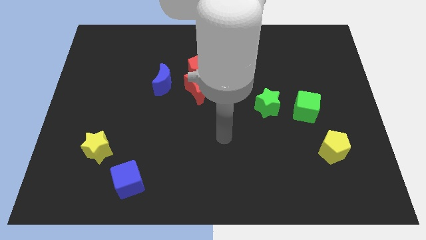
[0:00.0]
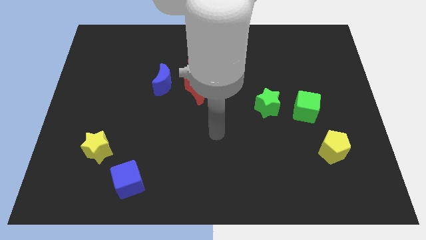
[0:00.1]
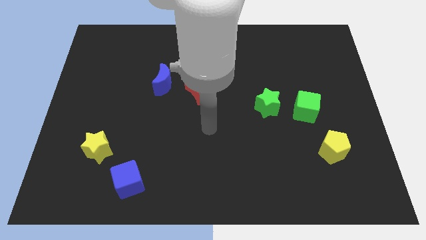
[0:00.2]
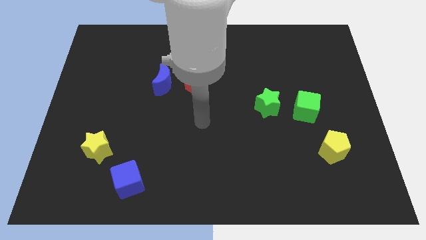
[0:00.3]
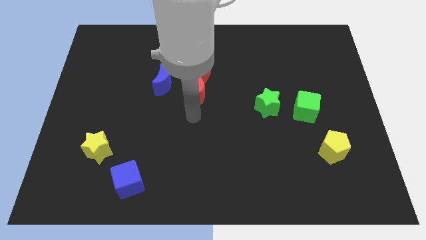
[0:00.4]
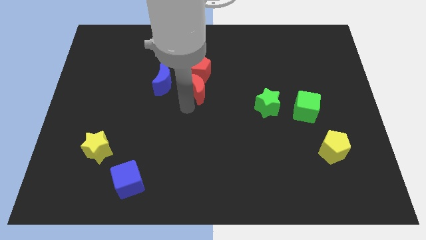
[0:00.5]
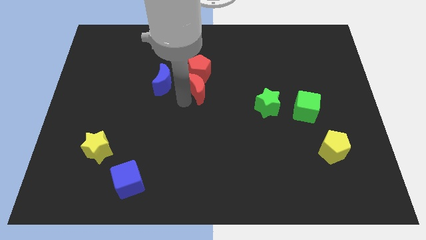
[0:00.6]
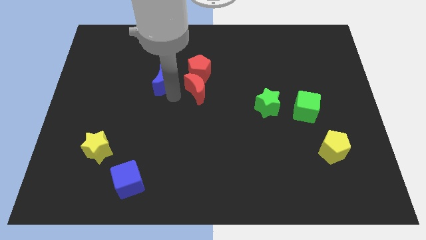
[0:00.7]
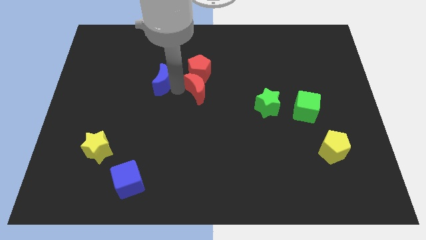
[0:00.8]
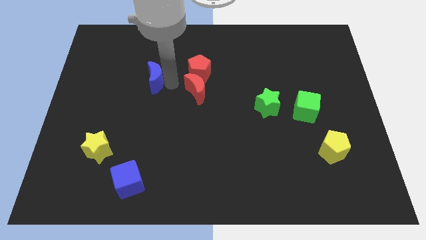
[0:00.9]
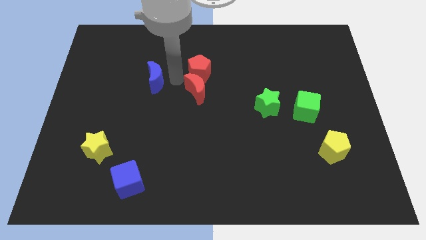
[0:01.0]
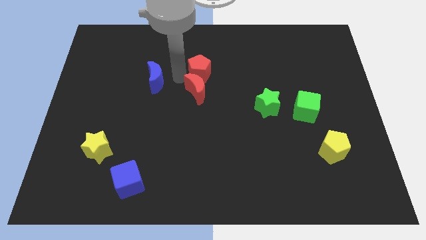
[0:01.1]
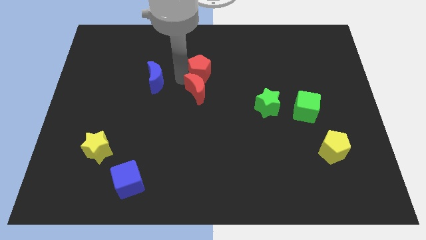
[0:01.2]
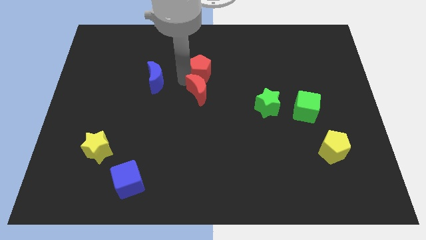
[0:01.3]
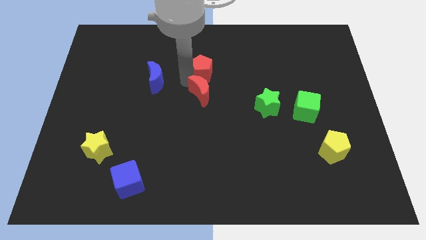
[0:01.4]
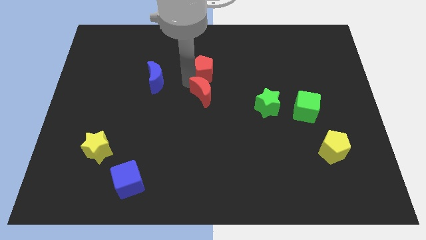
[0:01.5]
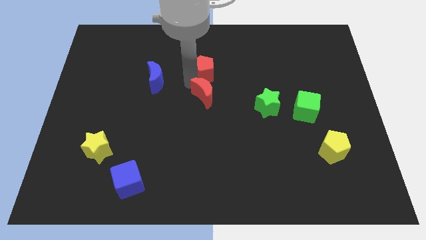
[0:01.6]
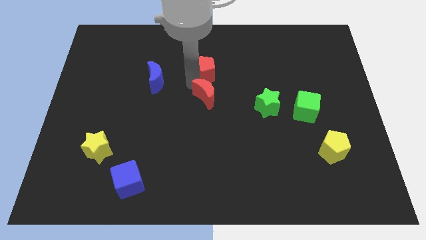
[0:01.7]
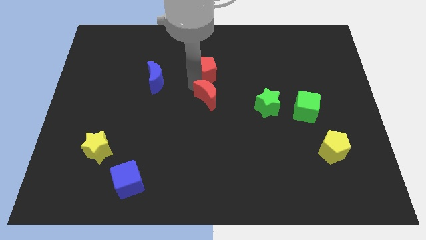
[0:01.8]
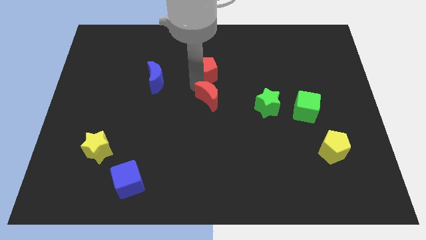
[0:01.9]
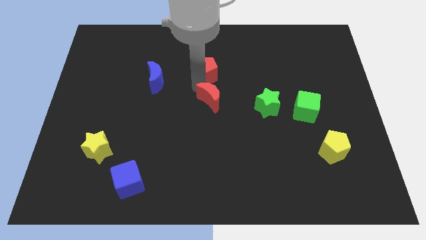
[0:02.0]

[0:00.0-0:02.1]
move the red moon away from the red pentagon and blue moon

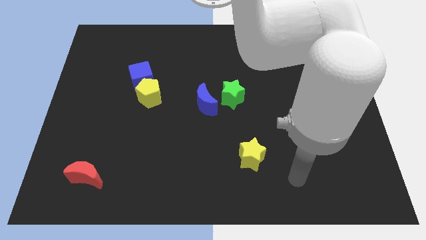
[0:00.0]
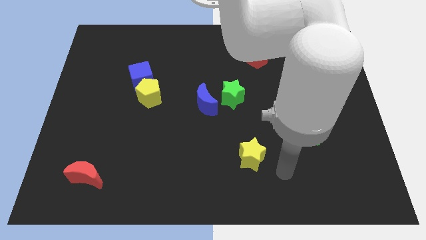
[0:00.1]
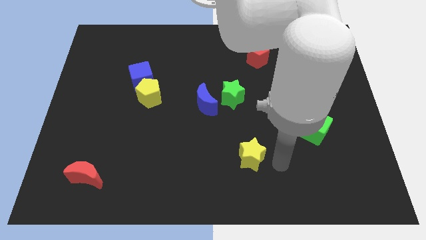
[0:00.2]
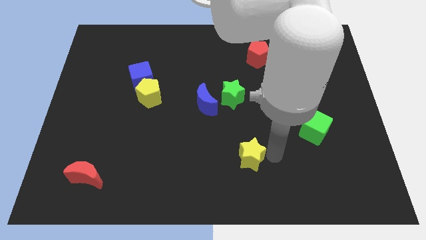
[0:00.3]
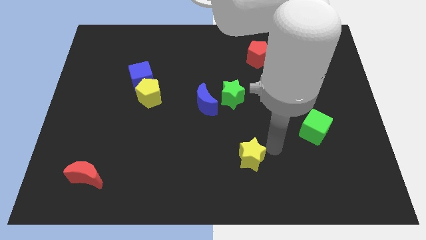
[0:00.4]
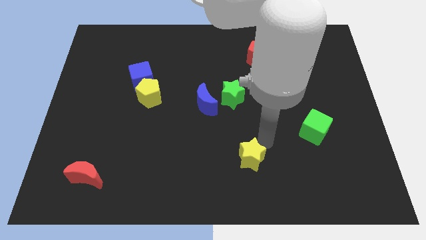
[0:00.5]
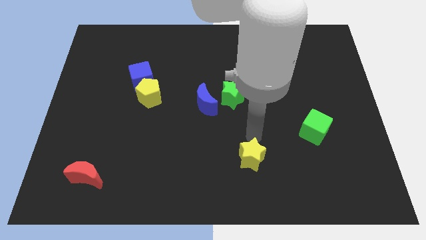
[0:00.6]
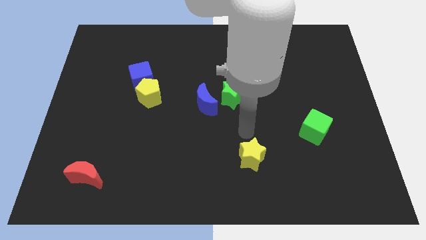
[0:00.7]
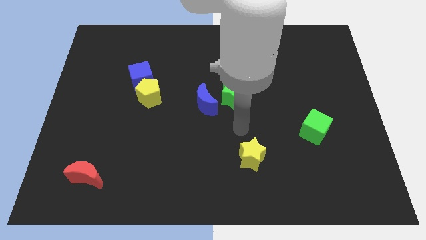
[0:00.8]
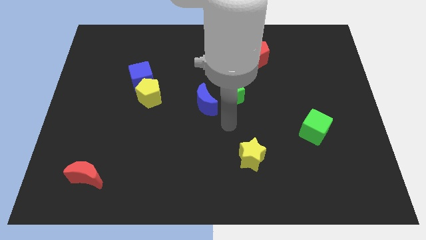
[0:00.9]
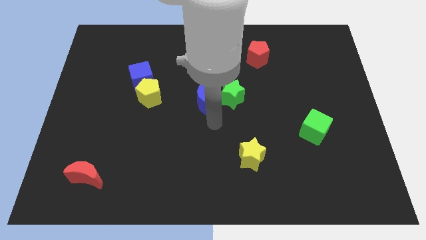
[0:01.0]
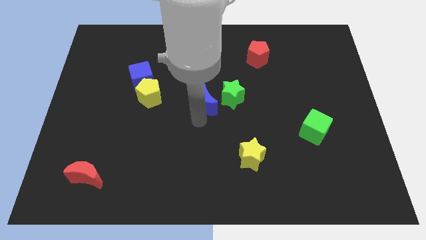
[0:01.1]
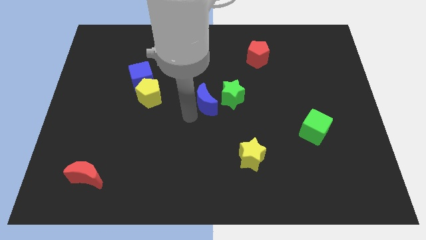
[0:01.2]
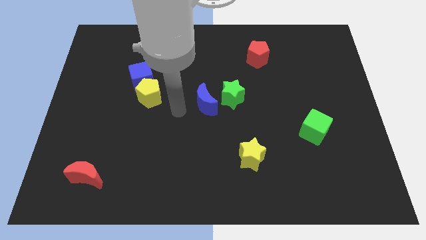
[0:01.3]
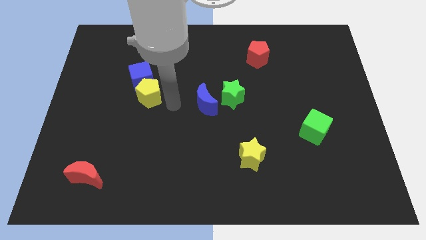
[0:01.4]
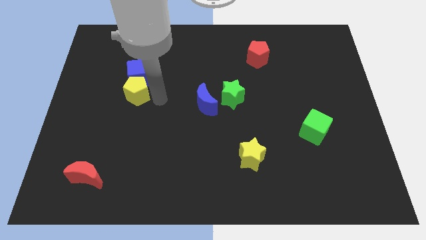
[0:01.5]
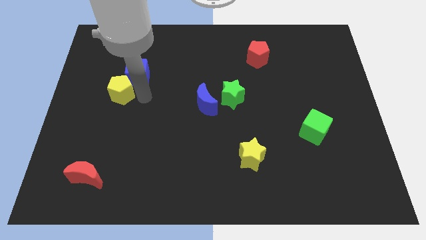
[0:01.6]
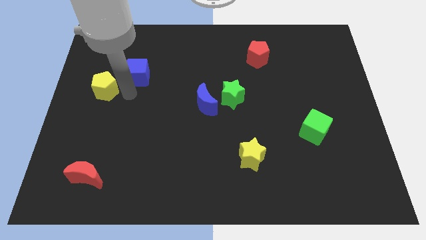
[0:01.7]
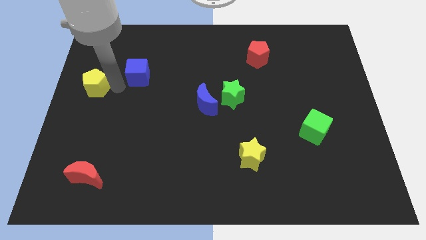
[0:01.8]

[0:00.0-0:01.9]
move the blue cube away from the yellow pentagon

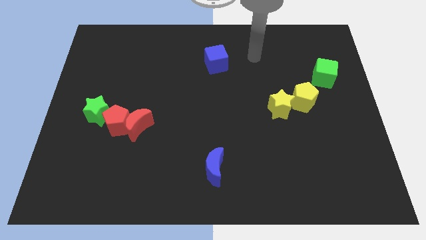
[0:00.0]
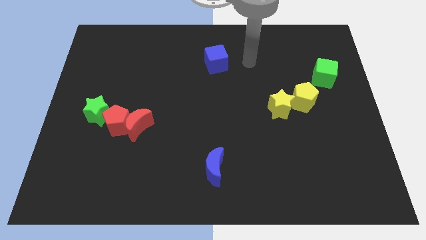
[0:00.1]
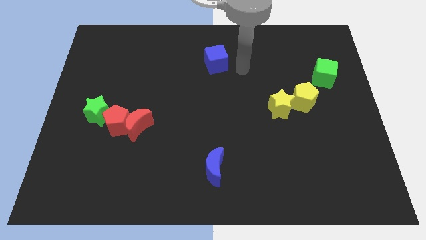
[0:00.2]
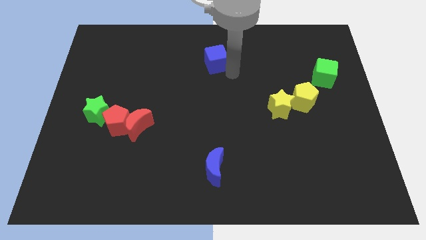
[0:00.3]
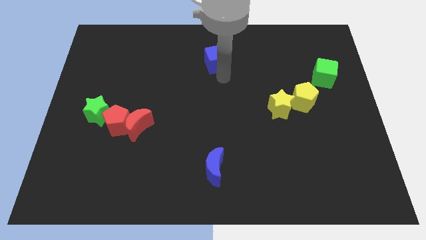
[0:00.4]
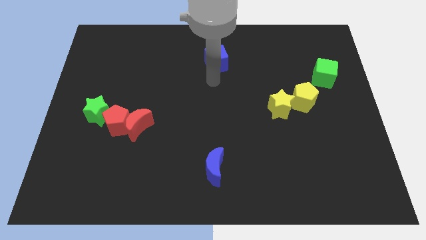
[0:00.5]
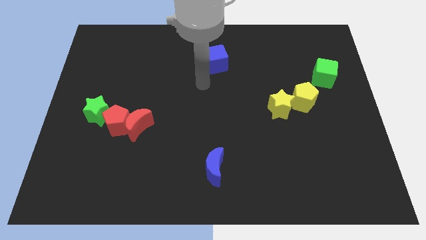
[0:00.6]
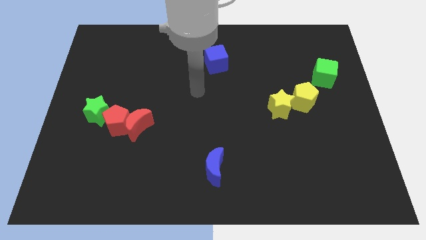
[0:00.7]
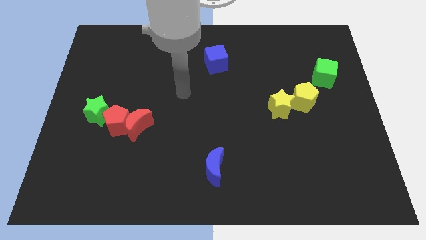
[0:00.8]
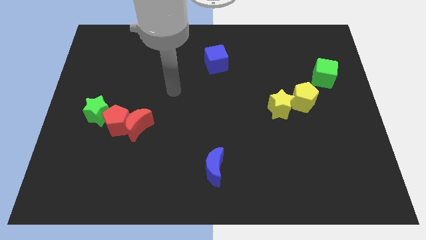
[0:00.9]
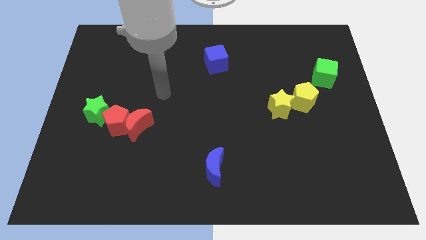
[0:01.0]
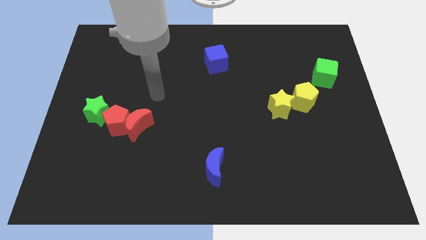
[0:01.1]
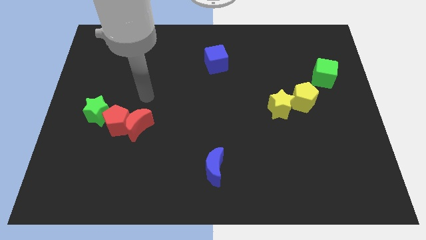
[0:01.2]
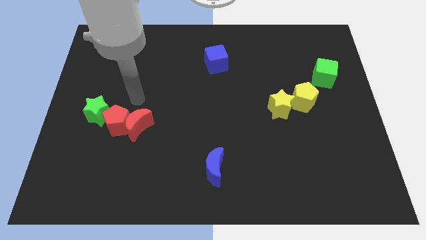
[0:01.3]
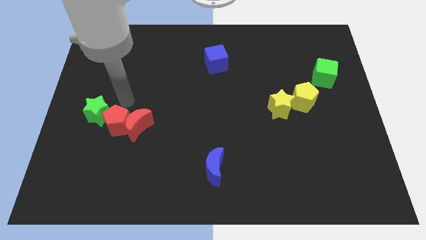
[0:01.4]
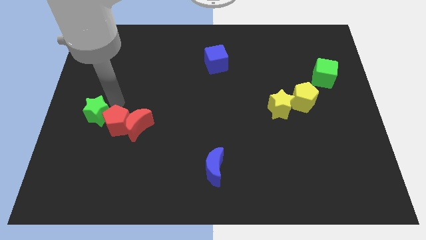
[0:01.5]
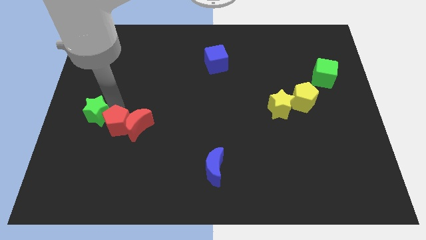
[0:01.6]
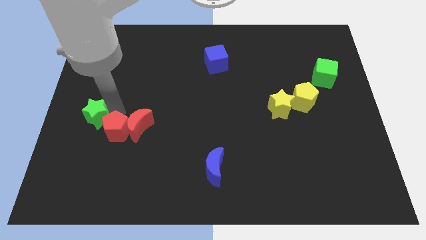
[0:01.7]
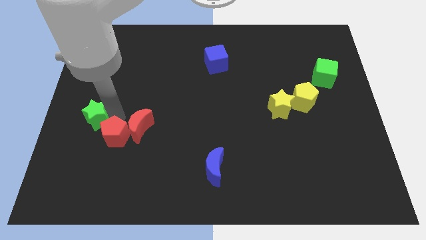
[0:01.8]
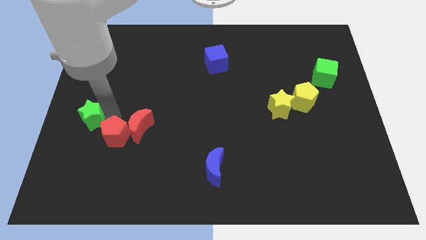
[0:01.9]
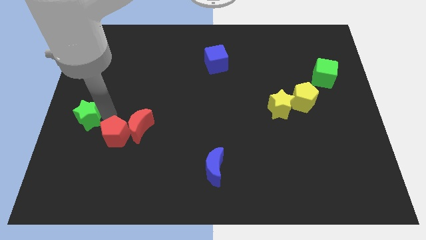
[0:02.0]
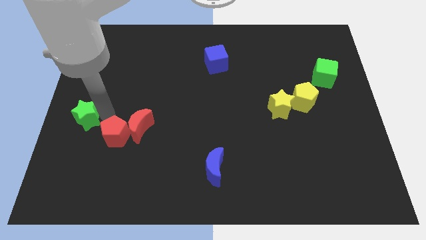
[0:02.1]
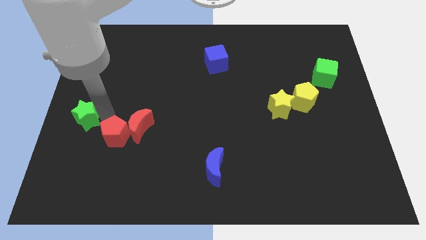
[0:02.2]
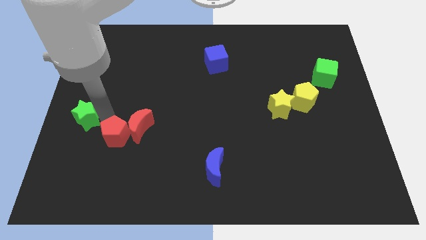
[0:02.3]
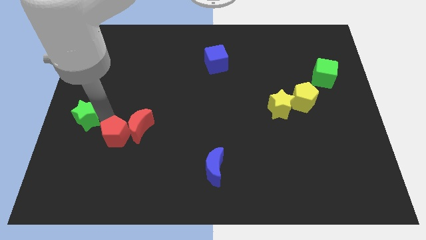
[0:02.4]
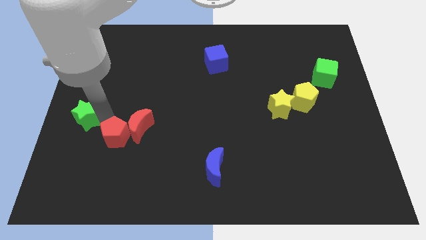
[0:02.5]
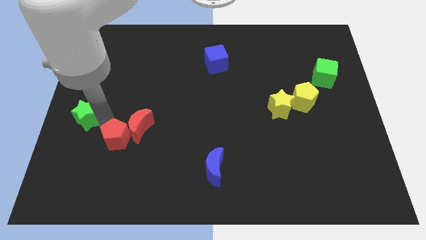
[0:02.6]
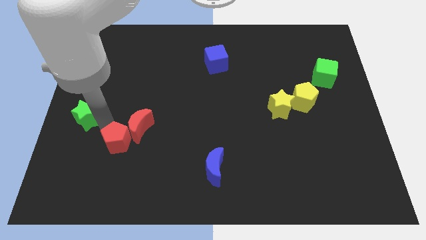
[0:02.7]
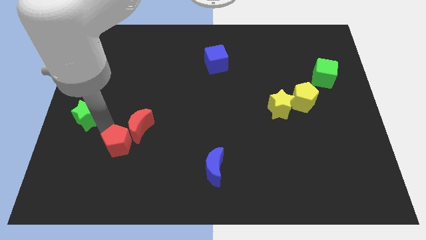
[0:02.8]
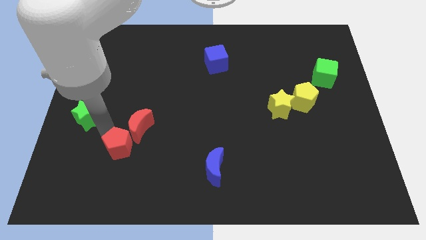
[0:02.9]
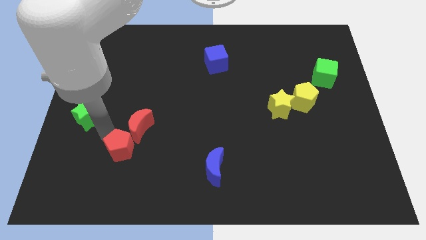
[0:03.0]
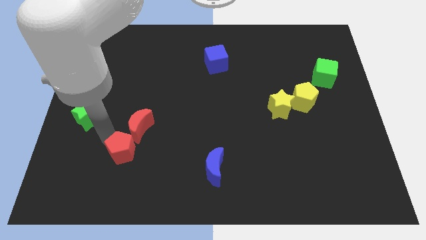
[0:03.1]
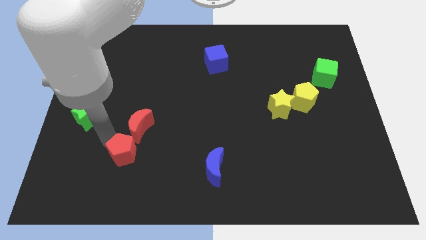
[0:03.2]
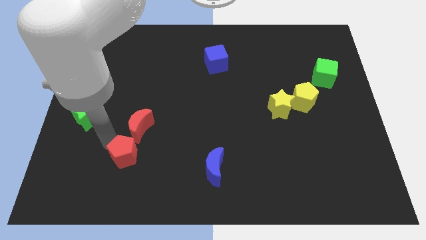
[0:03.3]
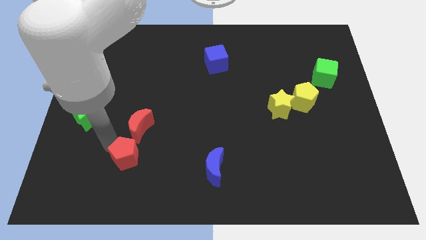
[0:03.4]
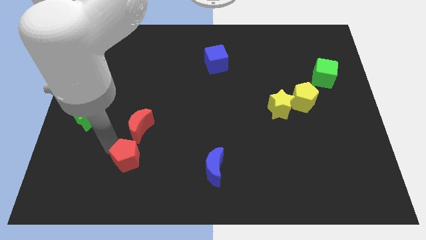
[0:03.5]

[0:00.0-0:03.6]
separate the red pentagon from the red moon and green star

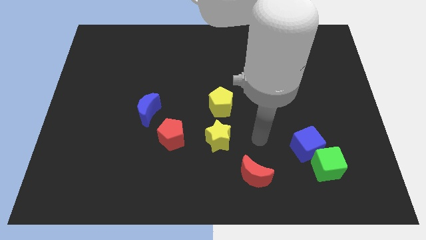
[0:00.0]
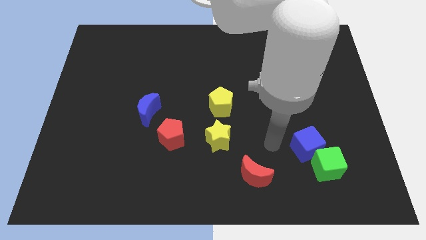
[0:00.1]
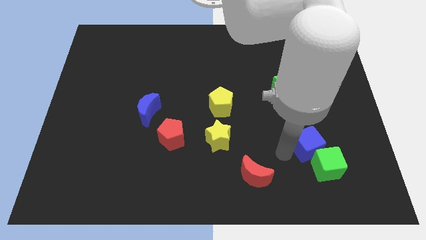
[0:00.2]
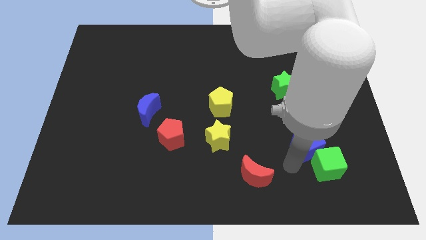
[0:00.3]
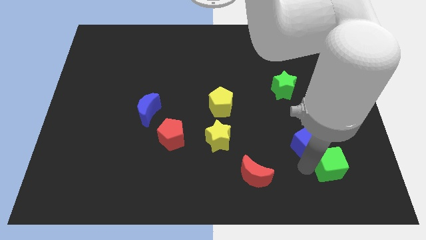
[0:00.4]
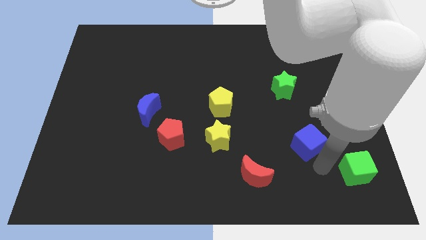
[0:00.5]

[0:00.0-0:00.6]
separate the blue cube from the green cube

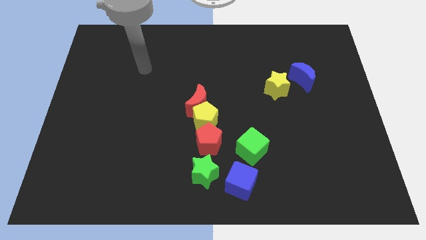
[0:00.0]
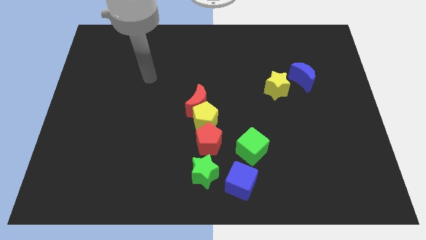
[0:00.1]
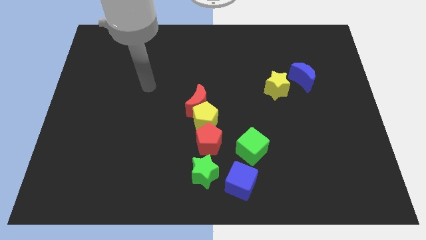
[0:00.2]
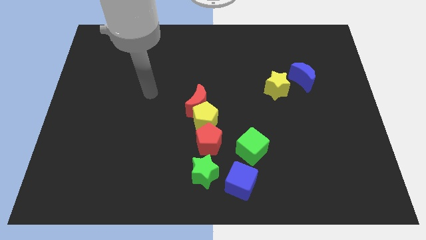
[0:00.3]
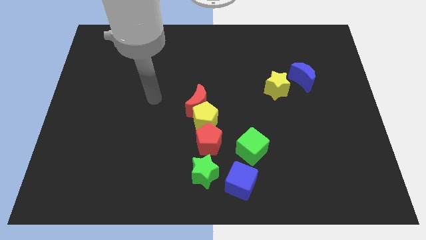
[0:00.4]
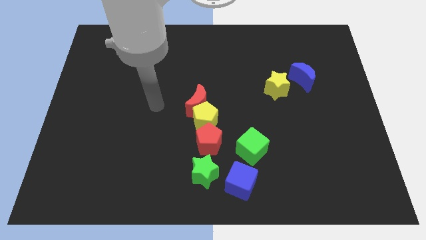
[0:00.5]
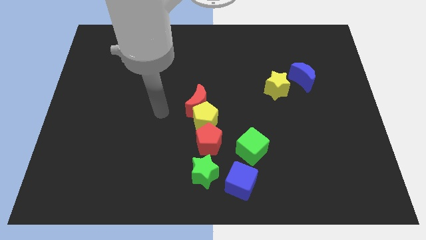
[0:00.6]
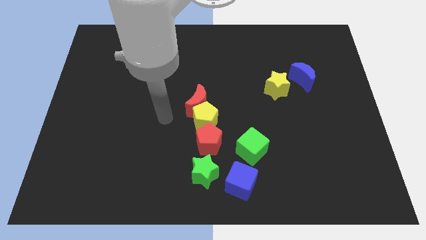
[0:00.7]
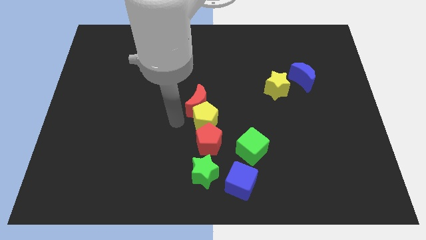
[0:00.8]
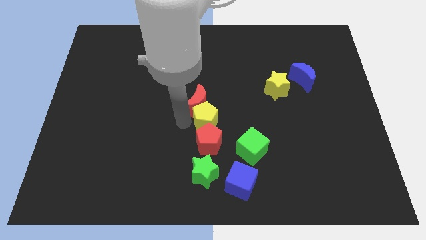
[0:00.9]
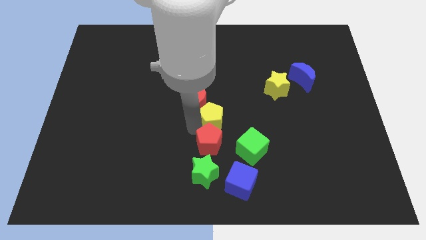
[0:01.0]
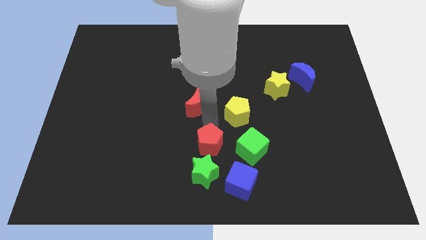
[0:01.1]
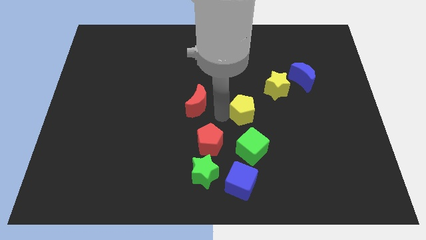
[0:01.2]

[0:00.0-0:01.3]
pull the red moon apart from the yellow pentagon
